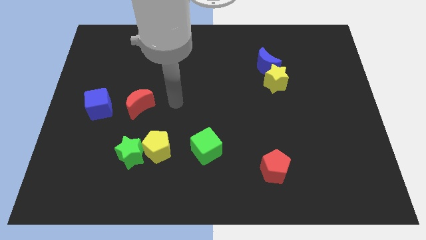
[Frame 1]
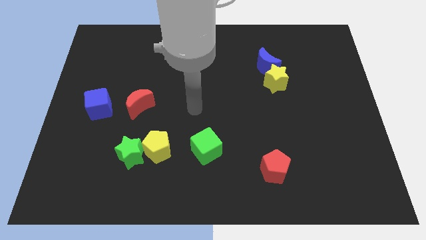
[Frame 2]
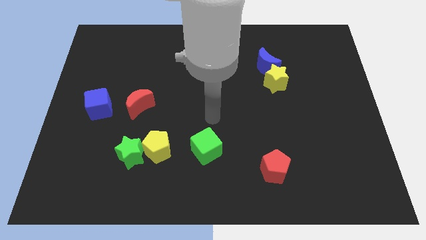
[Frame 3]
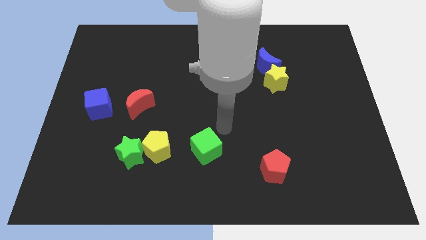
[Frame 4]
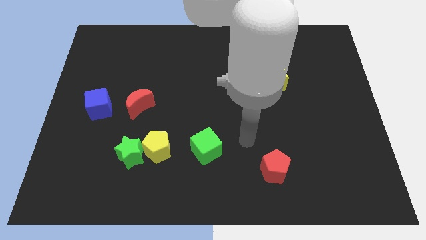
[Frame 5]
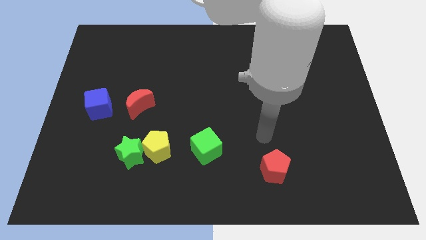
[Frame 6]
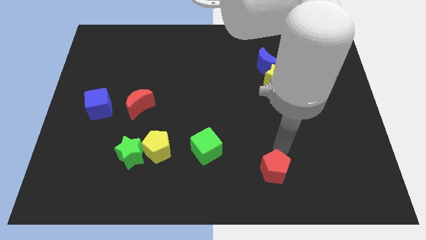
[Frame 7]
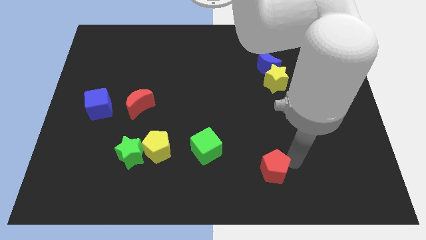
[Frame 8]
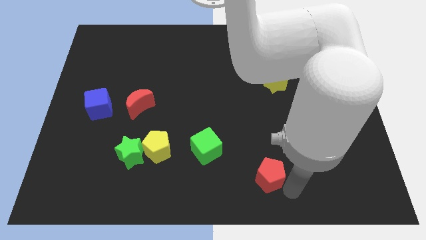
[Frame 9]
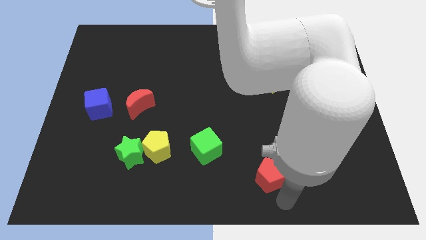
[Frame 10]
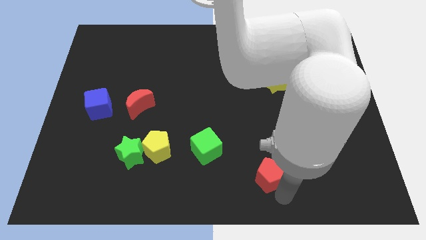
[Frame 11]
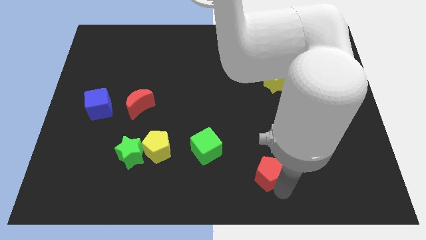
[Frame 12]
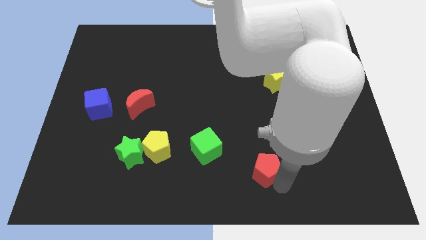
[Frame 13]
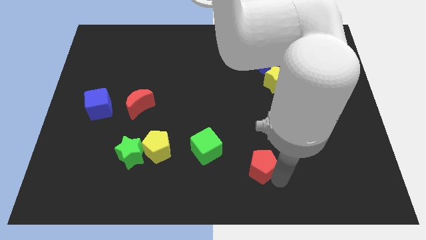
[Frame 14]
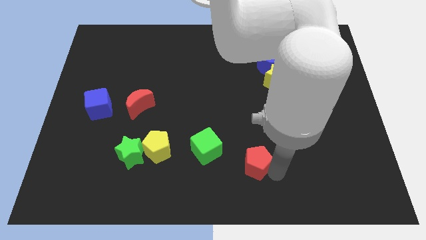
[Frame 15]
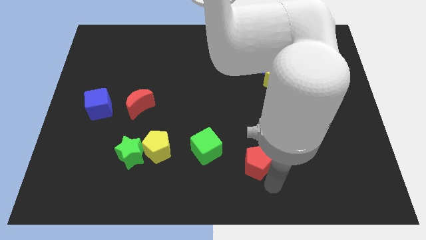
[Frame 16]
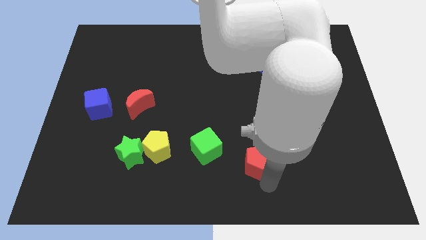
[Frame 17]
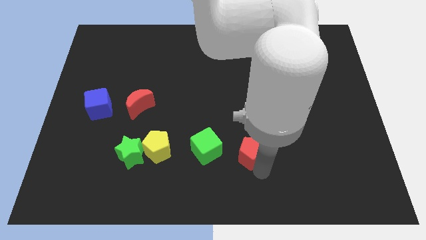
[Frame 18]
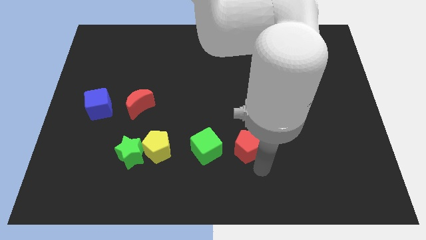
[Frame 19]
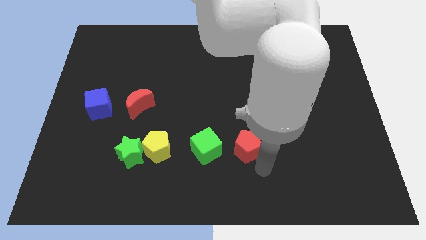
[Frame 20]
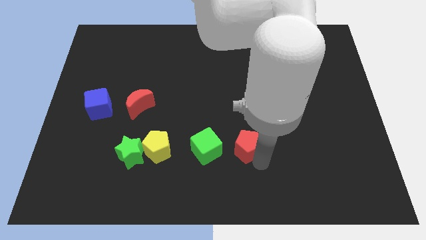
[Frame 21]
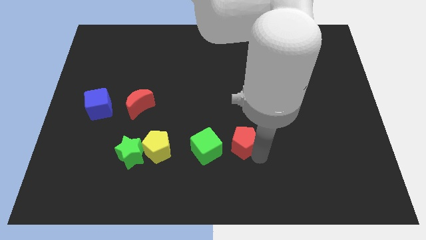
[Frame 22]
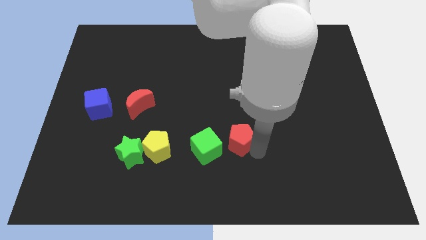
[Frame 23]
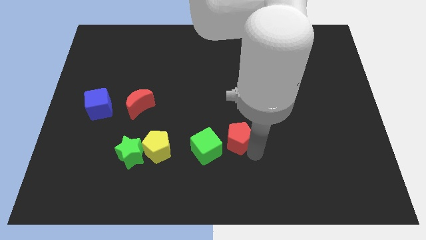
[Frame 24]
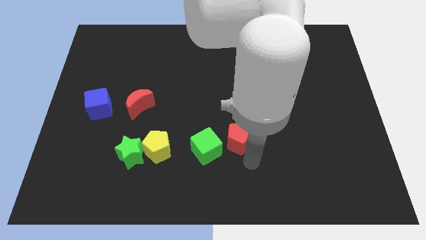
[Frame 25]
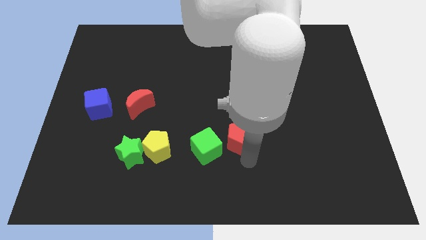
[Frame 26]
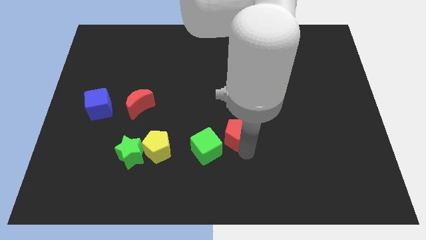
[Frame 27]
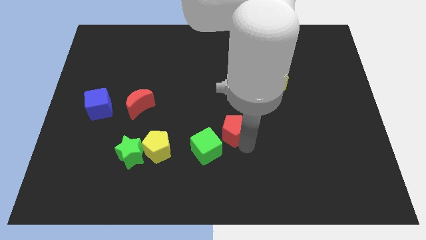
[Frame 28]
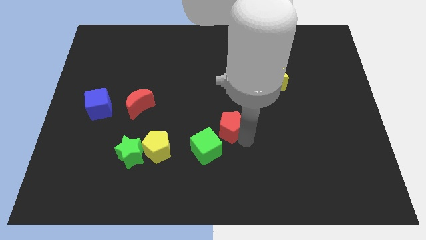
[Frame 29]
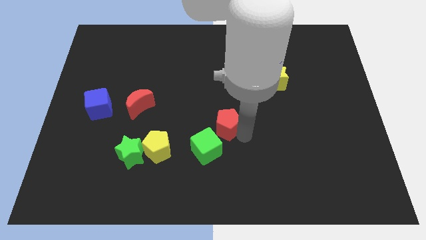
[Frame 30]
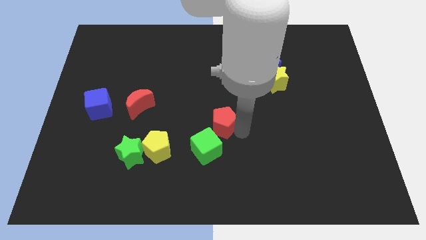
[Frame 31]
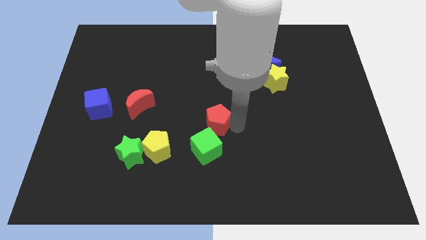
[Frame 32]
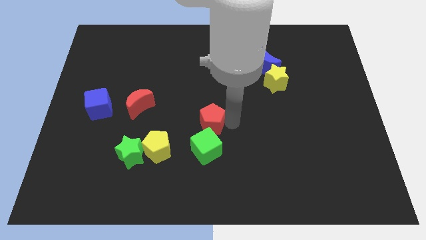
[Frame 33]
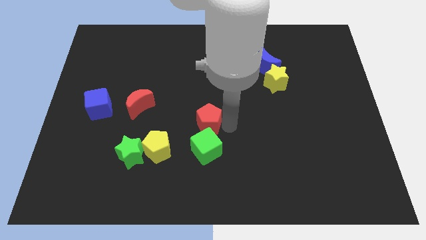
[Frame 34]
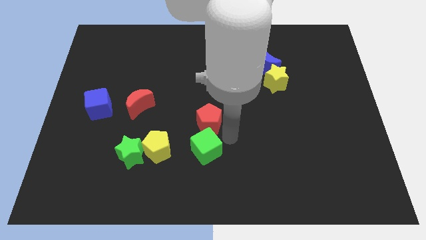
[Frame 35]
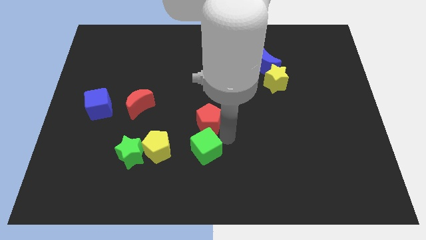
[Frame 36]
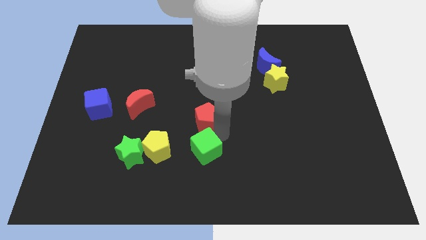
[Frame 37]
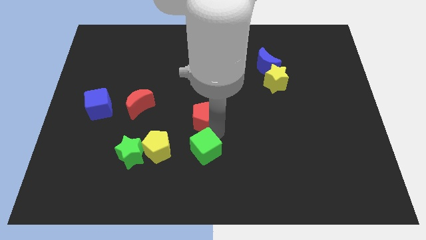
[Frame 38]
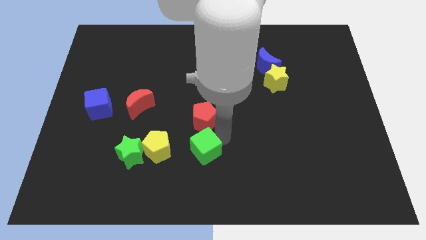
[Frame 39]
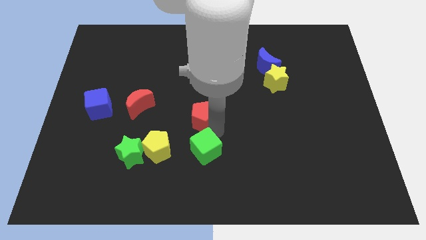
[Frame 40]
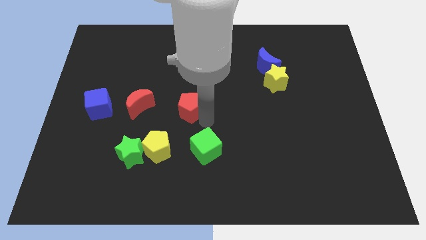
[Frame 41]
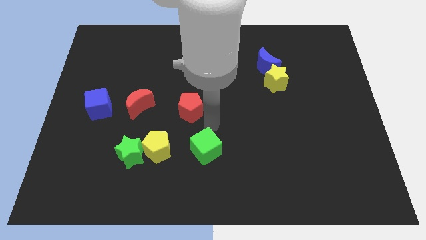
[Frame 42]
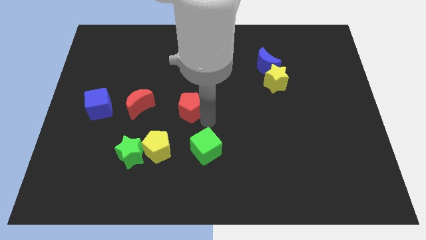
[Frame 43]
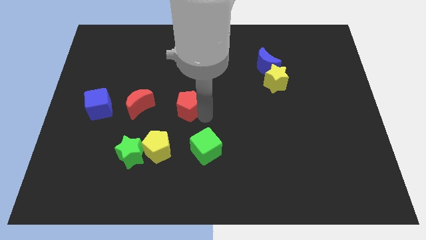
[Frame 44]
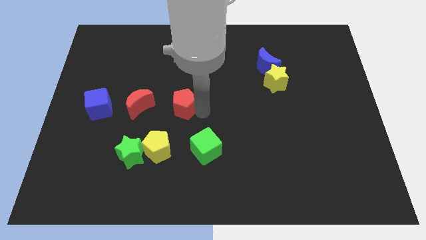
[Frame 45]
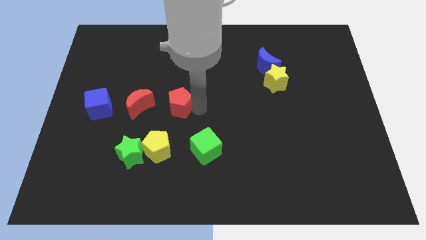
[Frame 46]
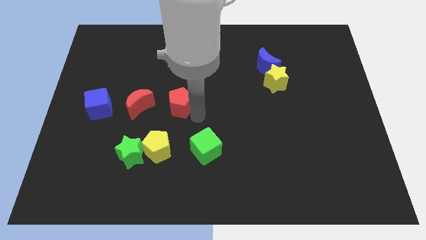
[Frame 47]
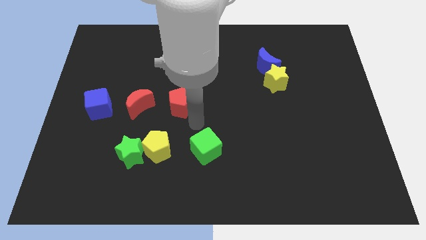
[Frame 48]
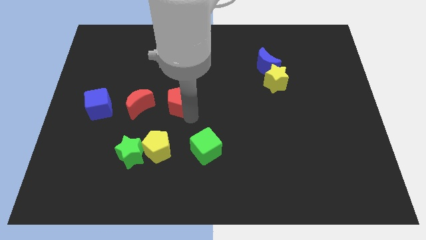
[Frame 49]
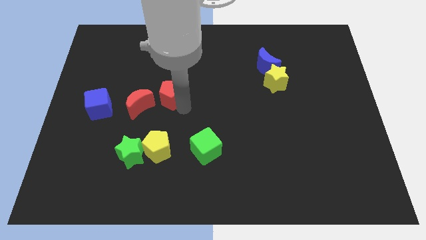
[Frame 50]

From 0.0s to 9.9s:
slide the red pentagon diagonally up and to the right of the red moon

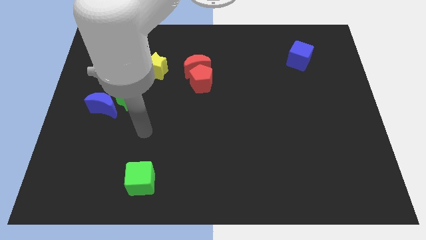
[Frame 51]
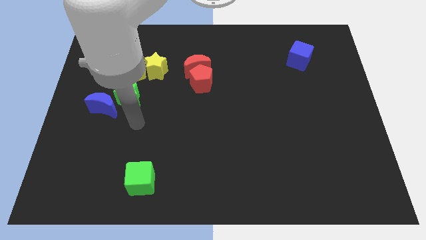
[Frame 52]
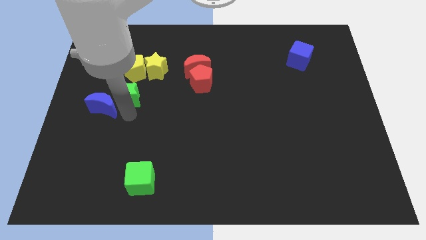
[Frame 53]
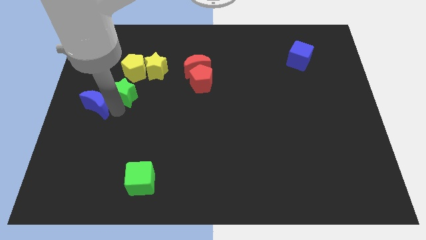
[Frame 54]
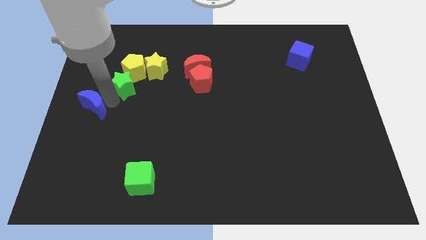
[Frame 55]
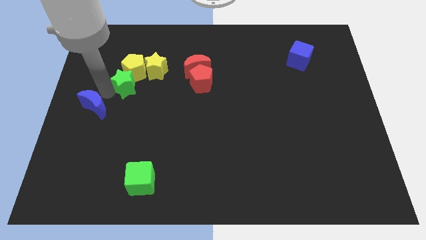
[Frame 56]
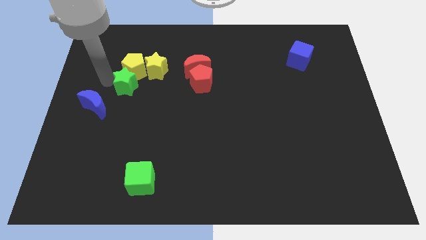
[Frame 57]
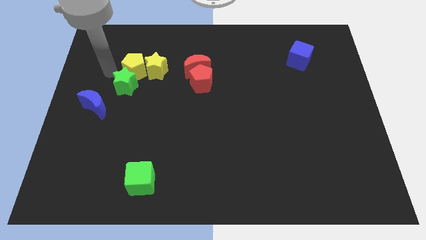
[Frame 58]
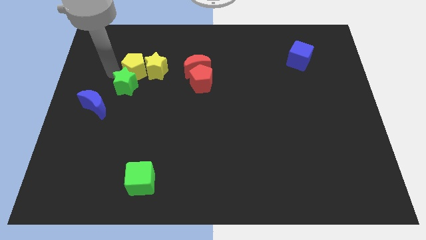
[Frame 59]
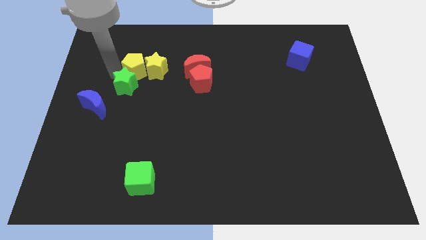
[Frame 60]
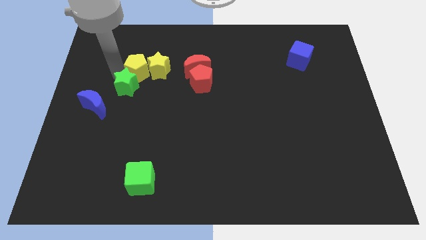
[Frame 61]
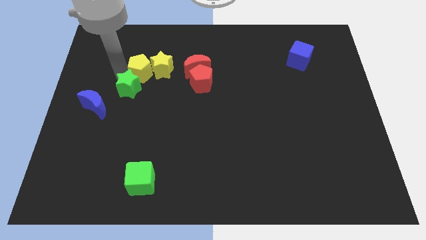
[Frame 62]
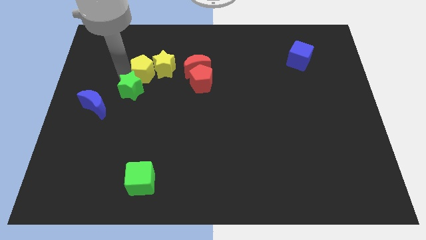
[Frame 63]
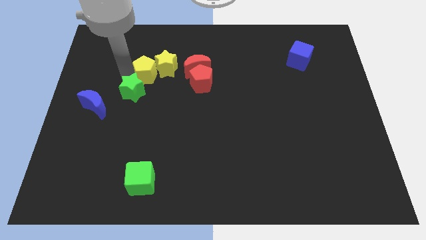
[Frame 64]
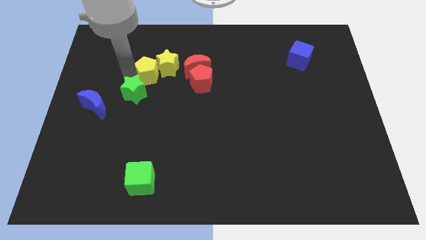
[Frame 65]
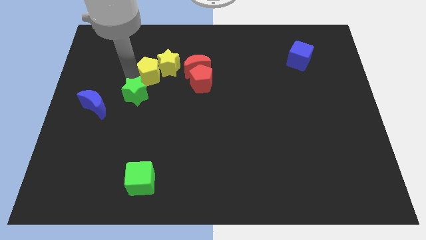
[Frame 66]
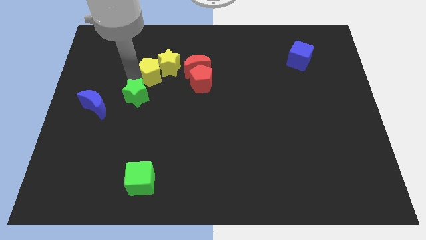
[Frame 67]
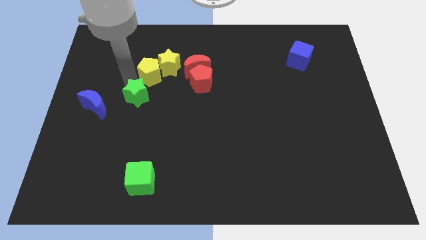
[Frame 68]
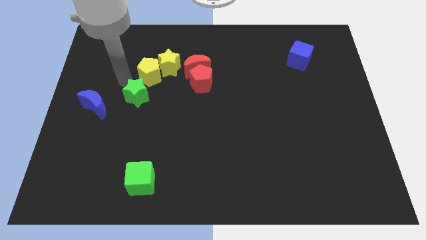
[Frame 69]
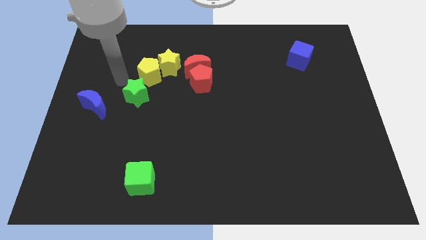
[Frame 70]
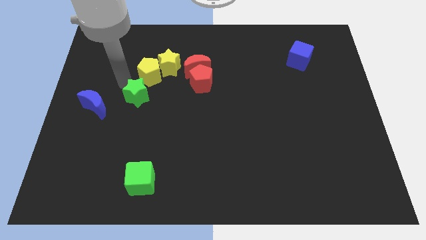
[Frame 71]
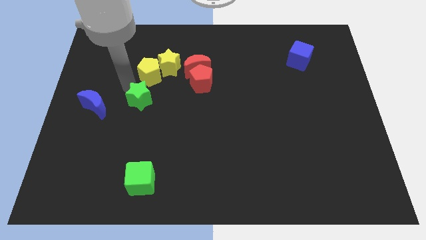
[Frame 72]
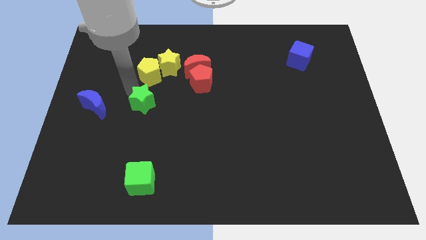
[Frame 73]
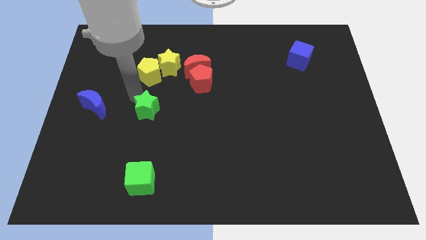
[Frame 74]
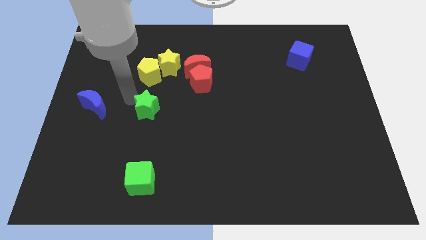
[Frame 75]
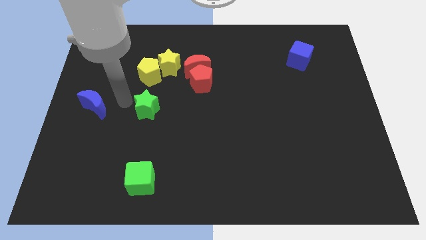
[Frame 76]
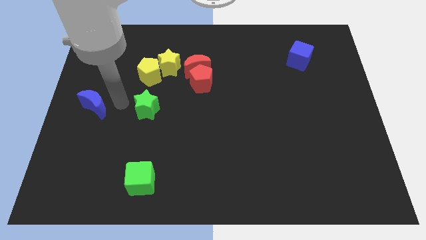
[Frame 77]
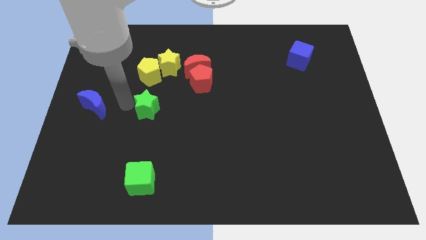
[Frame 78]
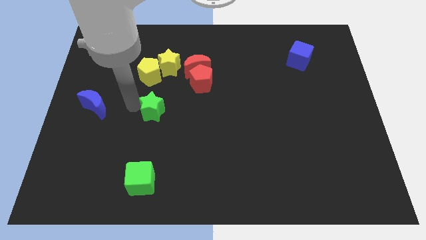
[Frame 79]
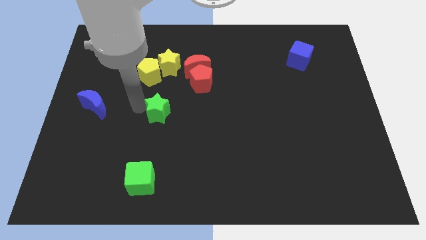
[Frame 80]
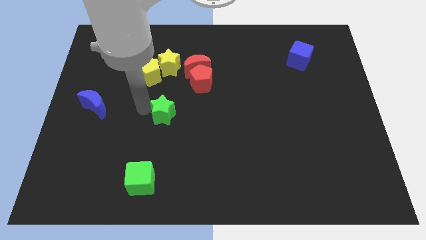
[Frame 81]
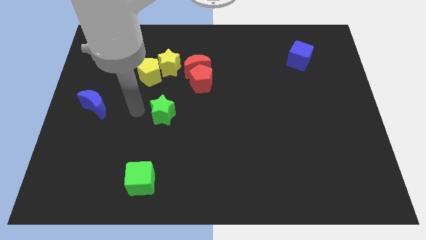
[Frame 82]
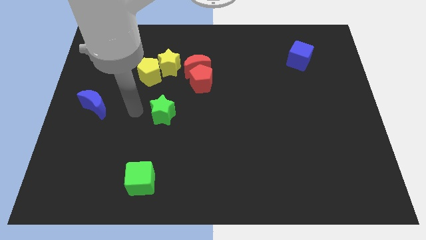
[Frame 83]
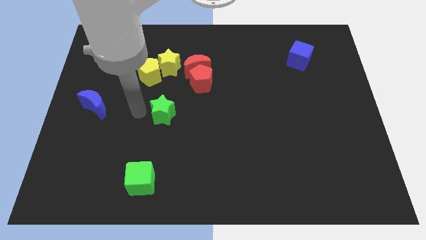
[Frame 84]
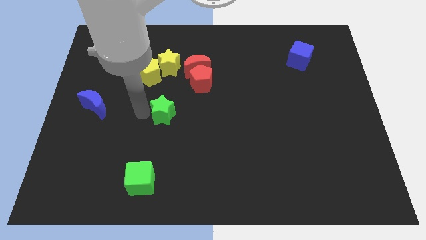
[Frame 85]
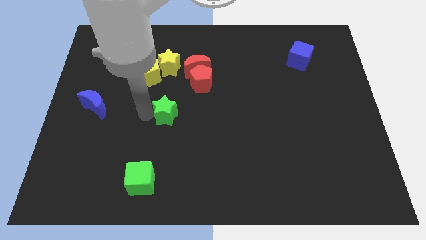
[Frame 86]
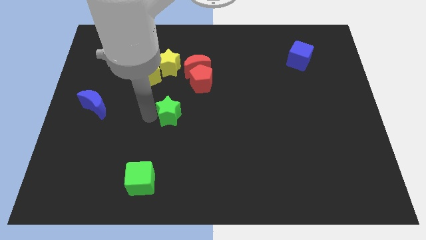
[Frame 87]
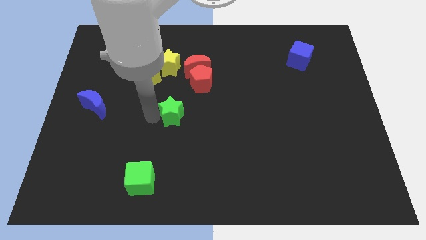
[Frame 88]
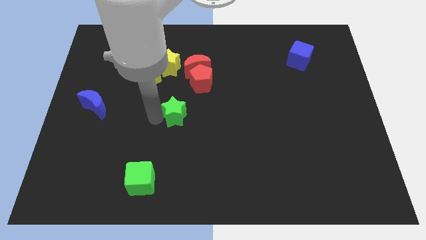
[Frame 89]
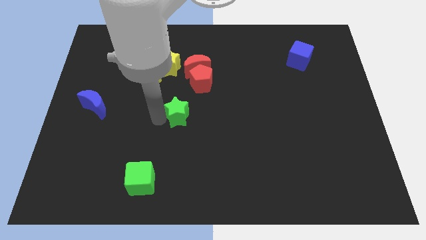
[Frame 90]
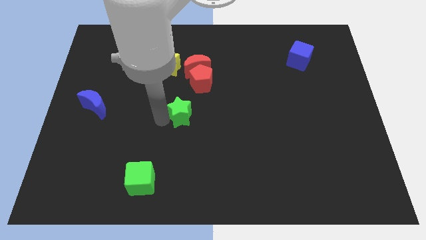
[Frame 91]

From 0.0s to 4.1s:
put the green star to the bottom of the red pentagon
